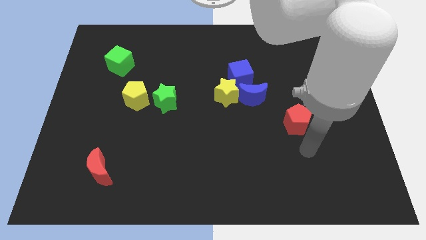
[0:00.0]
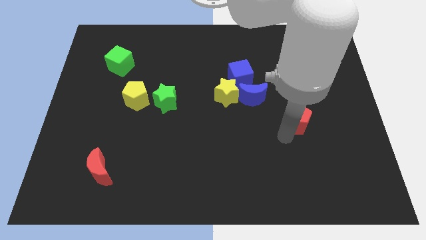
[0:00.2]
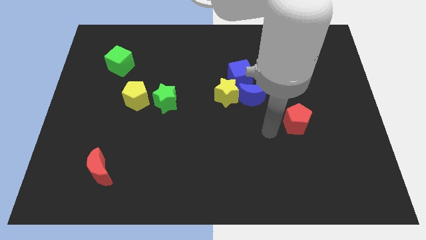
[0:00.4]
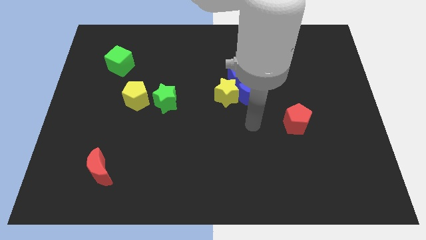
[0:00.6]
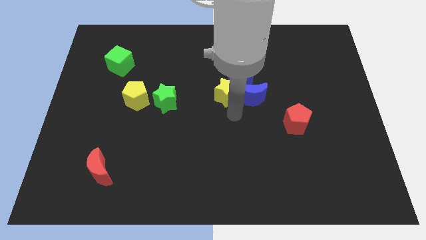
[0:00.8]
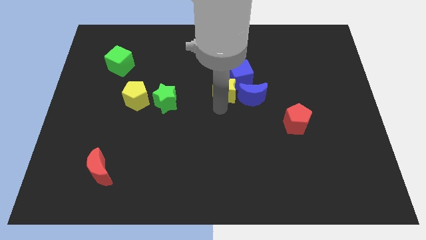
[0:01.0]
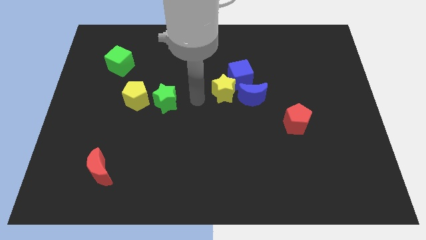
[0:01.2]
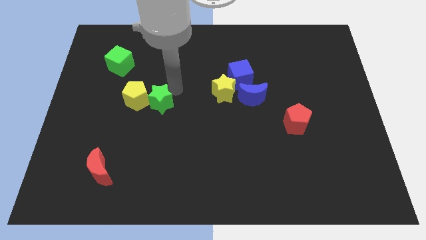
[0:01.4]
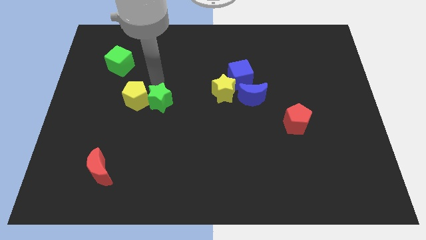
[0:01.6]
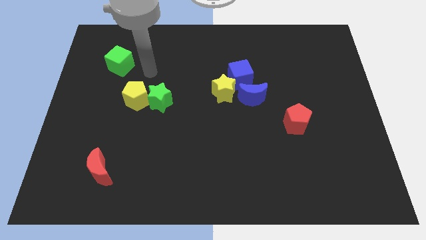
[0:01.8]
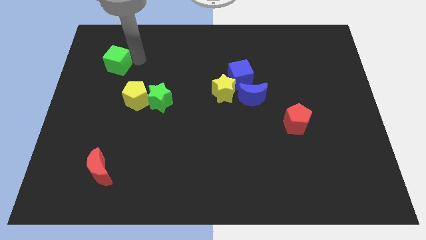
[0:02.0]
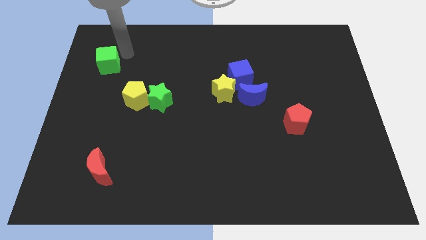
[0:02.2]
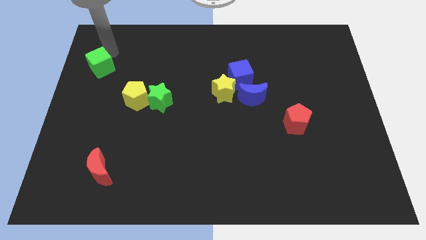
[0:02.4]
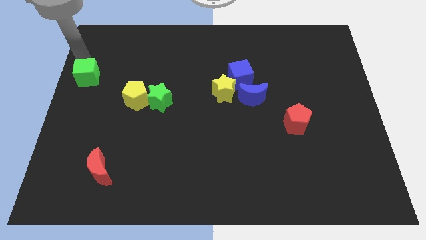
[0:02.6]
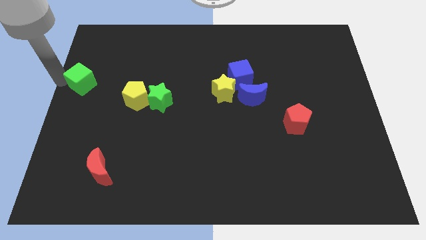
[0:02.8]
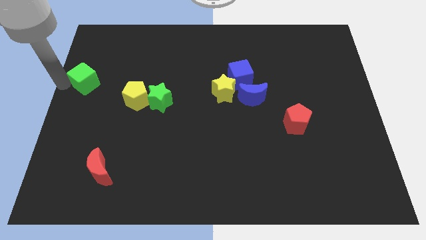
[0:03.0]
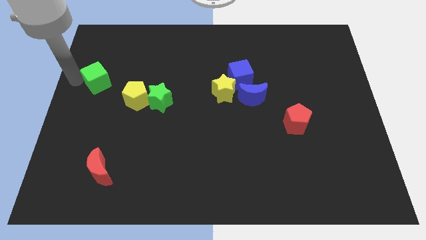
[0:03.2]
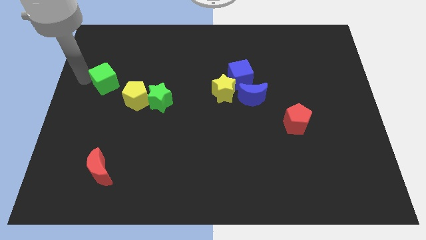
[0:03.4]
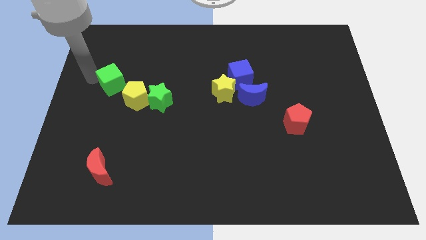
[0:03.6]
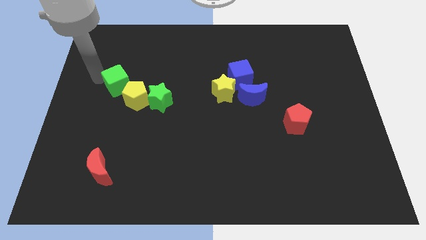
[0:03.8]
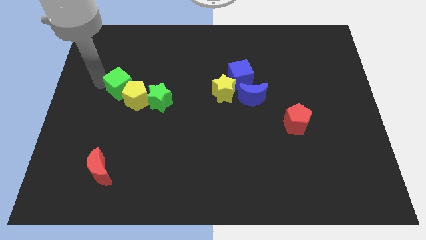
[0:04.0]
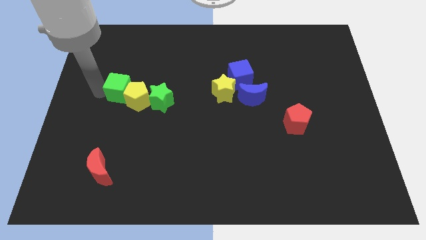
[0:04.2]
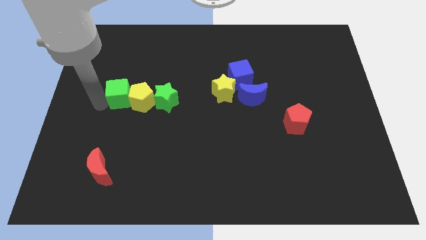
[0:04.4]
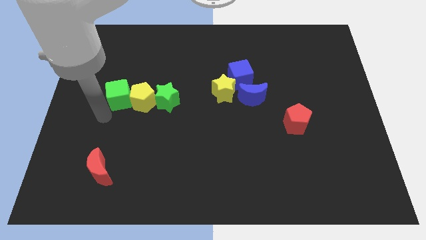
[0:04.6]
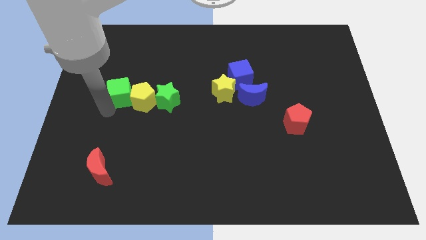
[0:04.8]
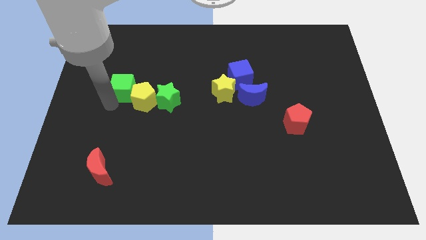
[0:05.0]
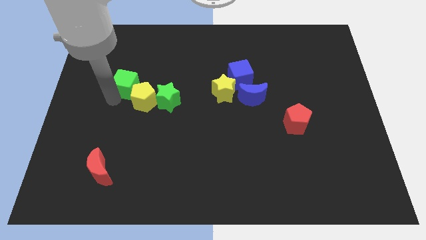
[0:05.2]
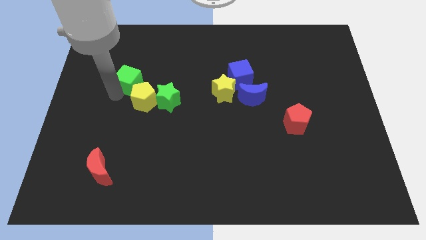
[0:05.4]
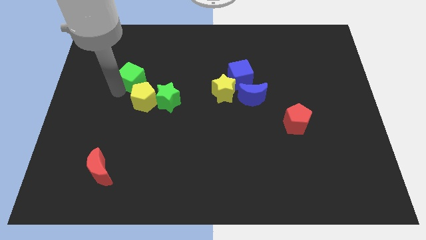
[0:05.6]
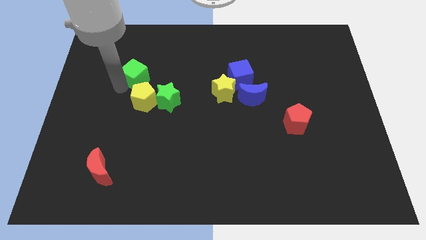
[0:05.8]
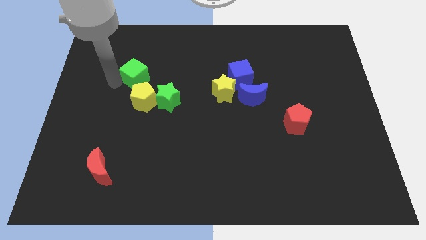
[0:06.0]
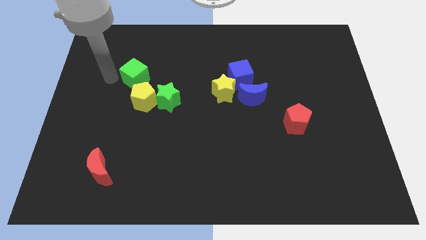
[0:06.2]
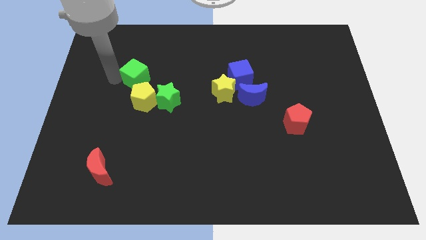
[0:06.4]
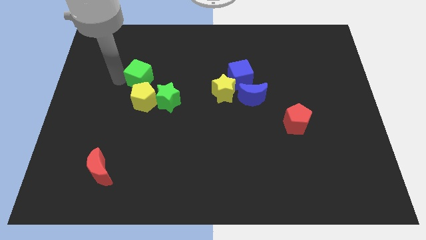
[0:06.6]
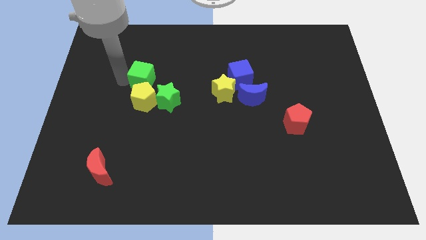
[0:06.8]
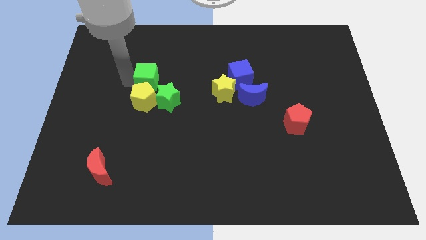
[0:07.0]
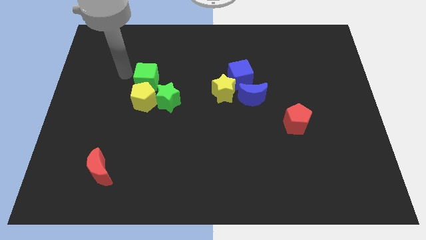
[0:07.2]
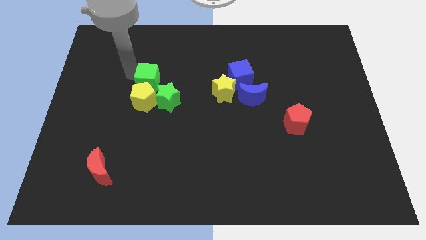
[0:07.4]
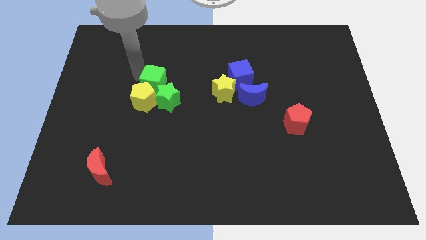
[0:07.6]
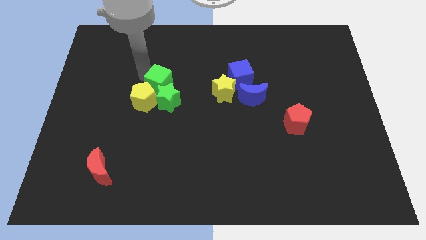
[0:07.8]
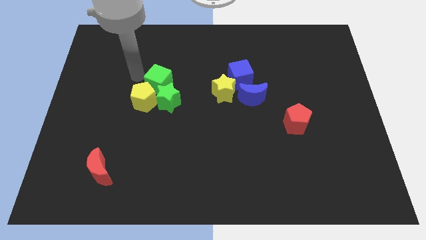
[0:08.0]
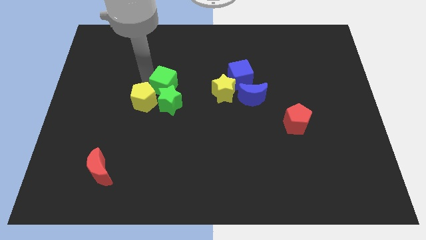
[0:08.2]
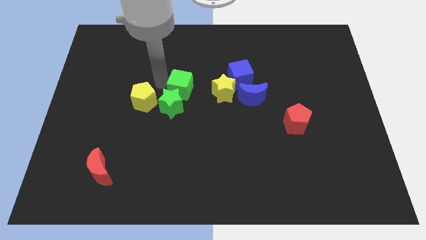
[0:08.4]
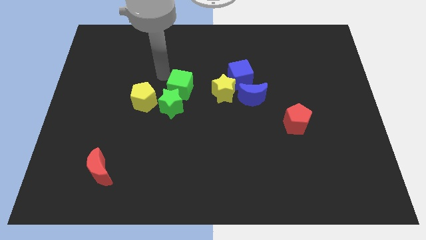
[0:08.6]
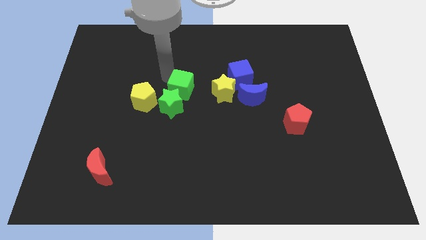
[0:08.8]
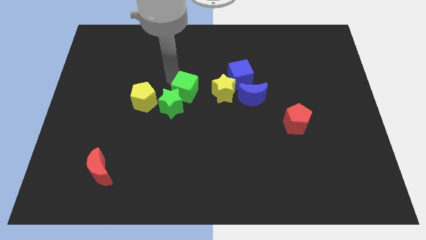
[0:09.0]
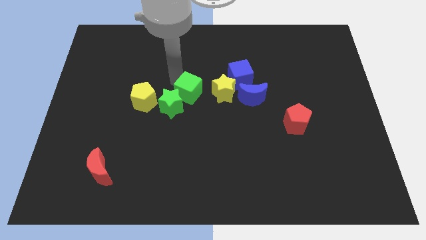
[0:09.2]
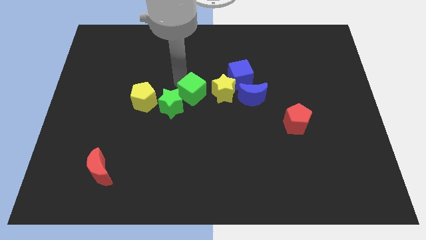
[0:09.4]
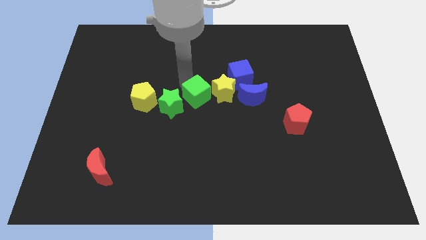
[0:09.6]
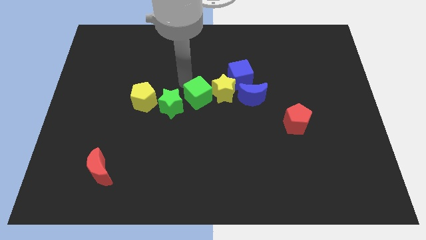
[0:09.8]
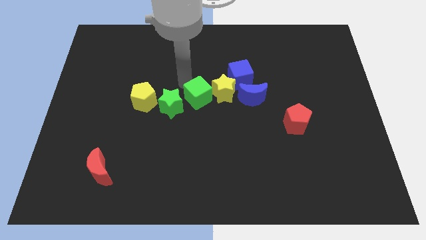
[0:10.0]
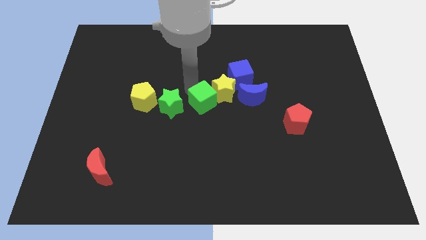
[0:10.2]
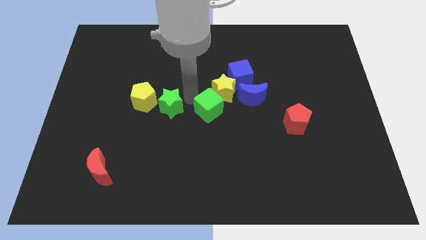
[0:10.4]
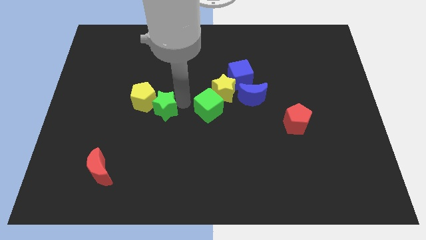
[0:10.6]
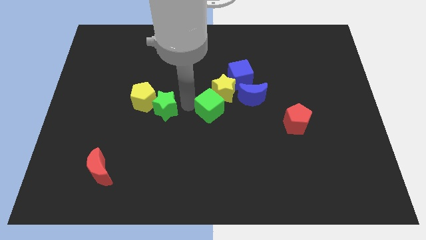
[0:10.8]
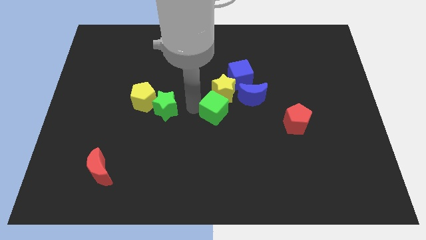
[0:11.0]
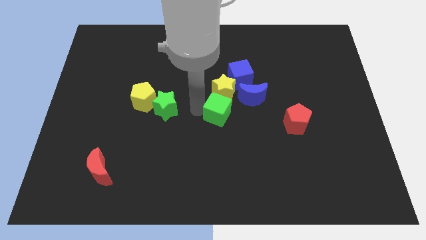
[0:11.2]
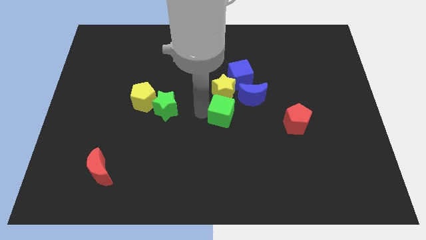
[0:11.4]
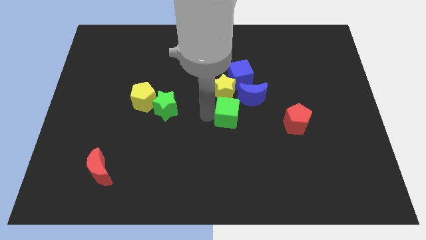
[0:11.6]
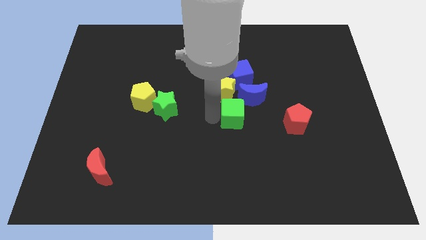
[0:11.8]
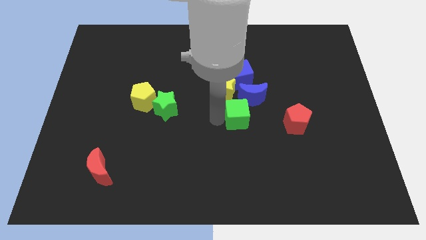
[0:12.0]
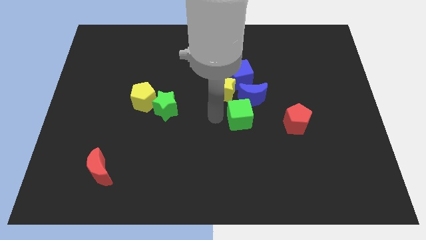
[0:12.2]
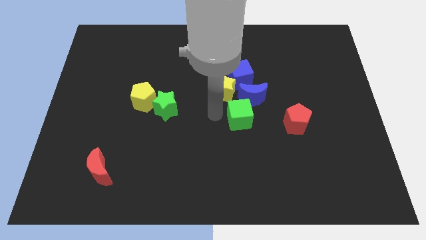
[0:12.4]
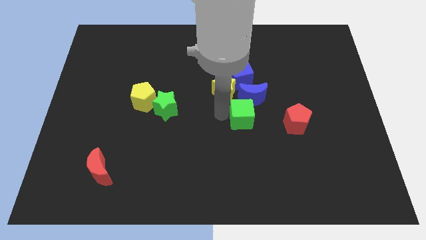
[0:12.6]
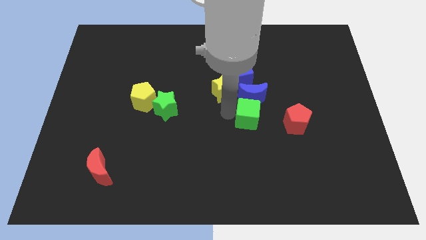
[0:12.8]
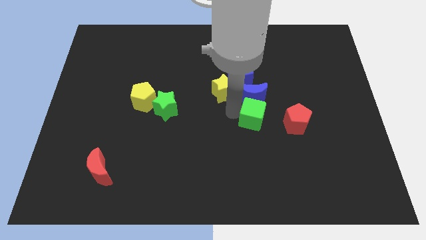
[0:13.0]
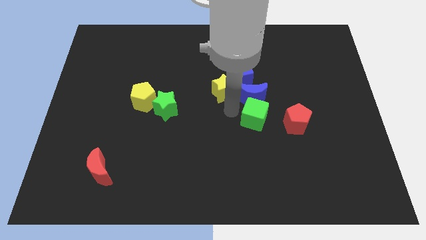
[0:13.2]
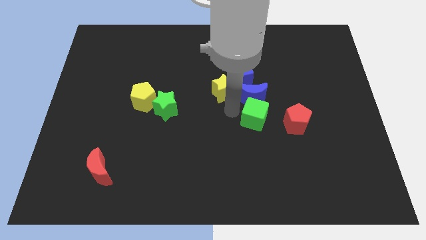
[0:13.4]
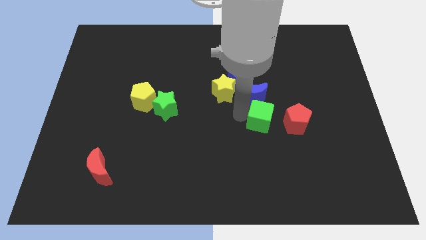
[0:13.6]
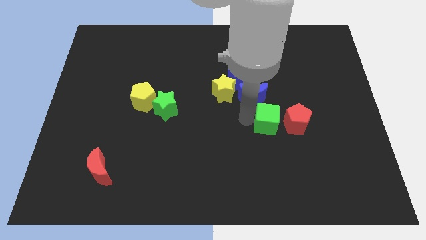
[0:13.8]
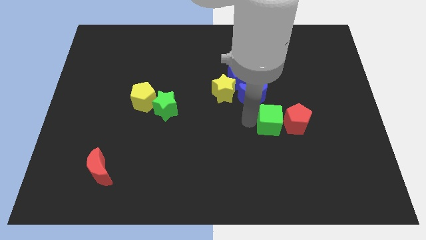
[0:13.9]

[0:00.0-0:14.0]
push the green cube to the red pentagon
